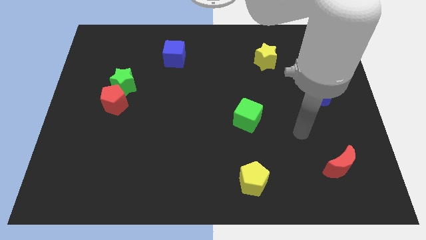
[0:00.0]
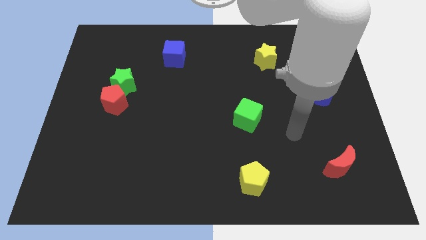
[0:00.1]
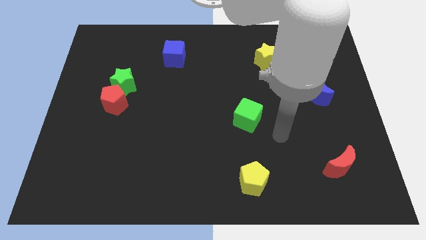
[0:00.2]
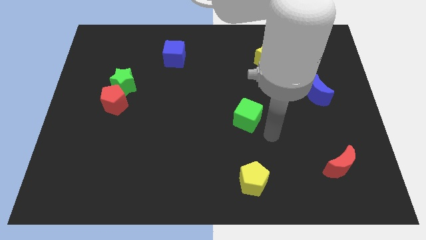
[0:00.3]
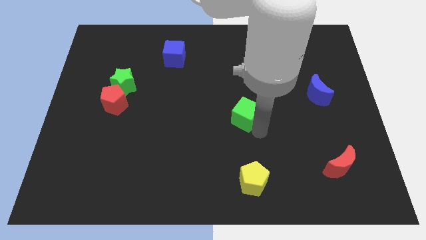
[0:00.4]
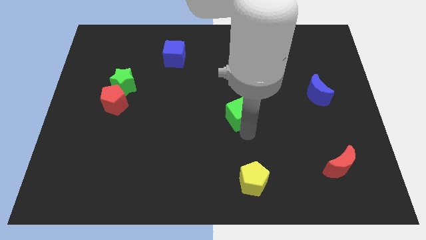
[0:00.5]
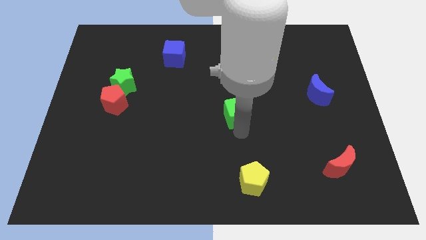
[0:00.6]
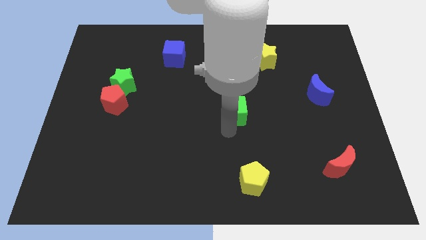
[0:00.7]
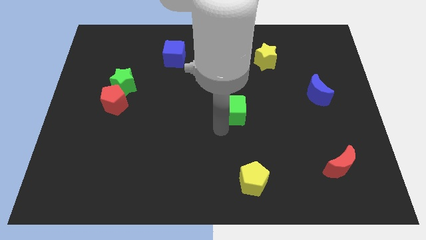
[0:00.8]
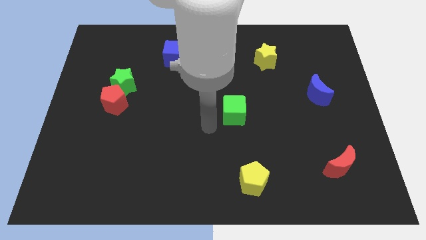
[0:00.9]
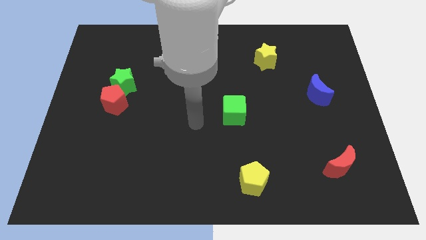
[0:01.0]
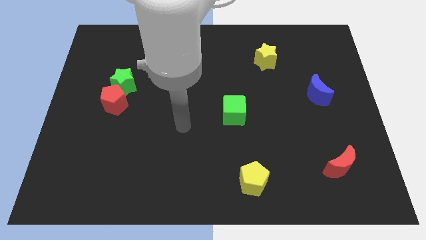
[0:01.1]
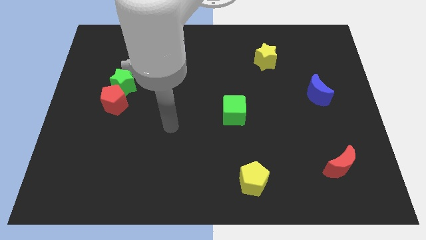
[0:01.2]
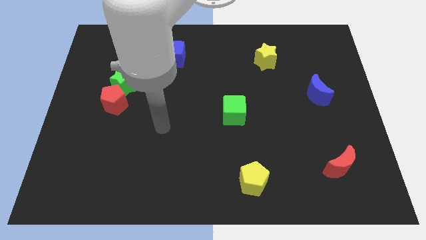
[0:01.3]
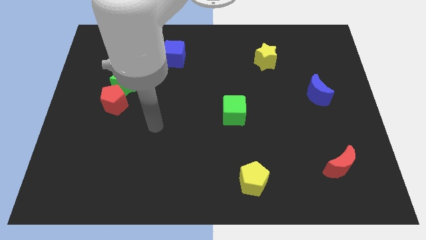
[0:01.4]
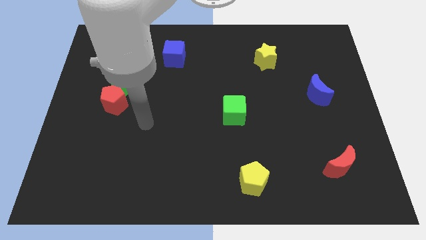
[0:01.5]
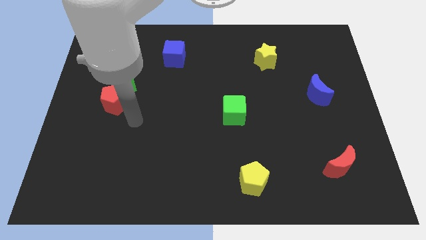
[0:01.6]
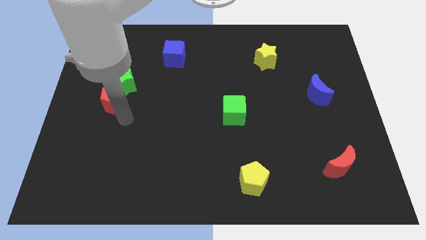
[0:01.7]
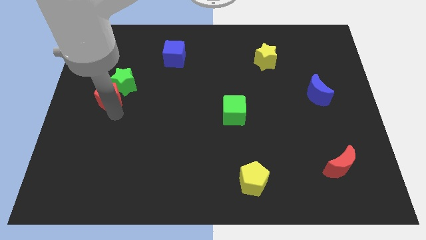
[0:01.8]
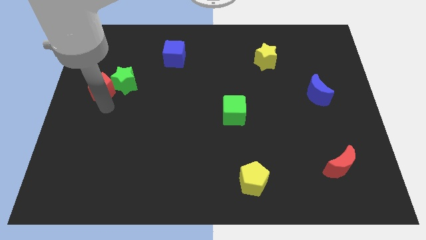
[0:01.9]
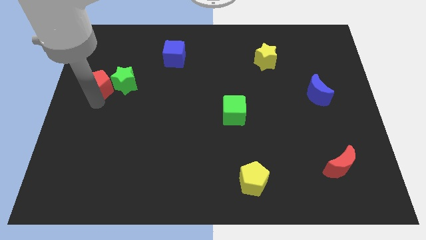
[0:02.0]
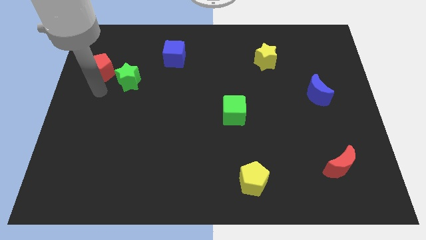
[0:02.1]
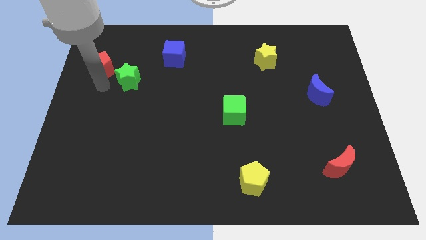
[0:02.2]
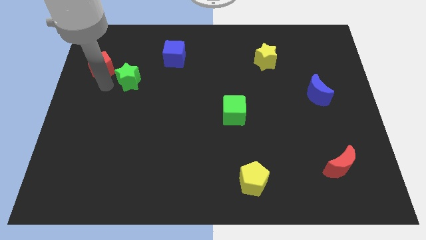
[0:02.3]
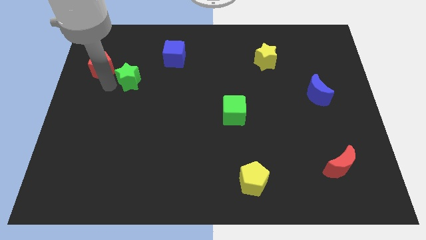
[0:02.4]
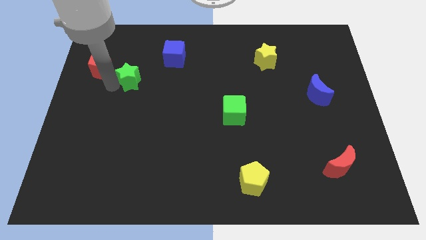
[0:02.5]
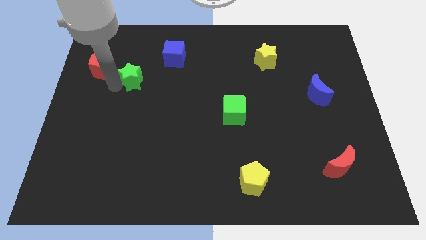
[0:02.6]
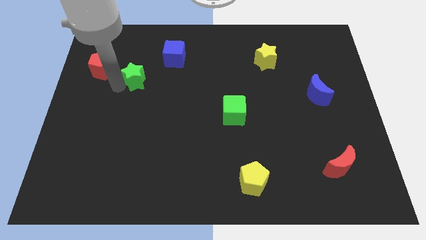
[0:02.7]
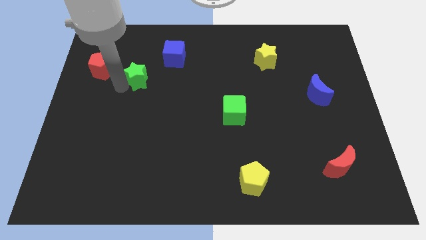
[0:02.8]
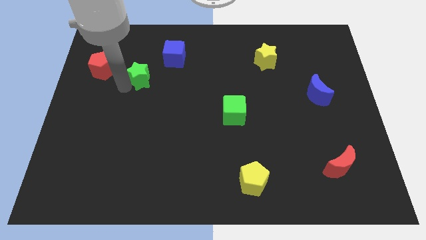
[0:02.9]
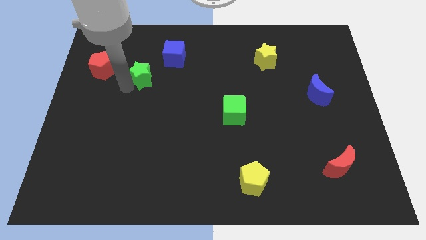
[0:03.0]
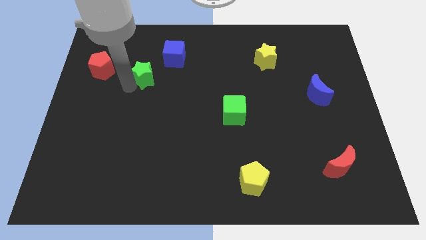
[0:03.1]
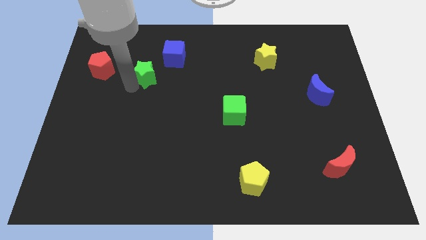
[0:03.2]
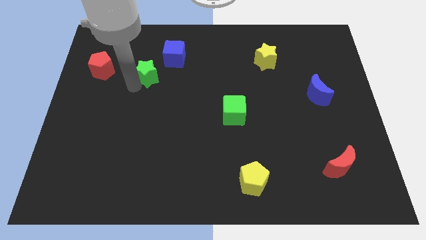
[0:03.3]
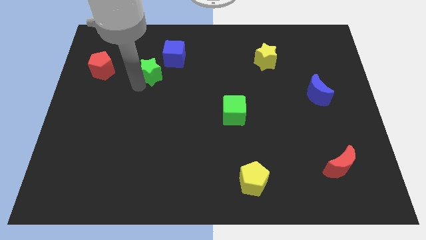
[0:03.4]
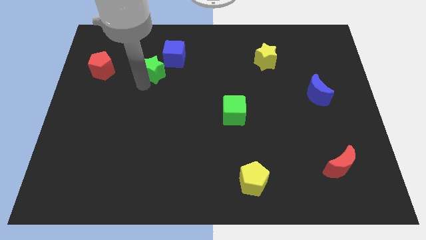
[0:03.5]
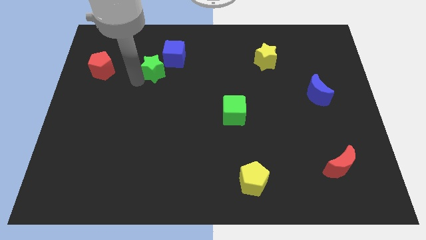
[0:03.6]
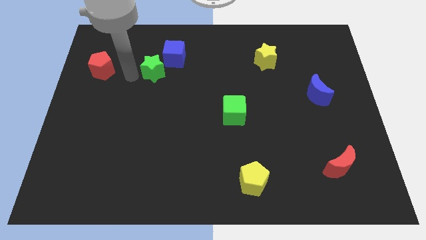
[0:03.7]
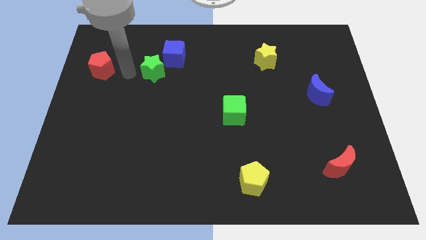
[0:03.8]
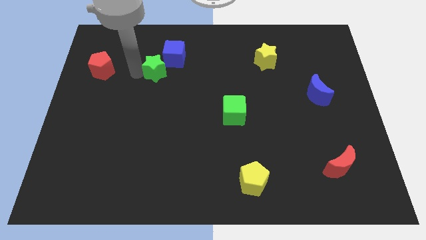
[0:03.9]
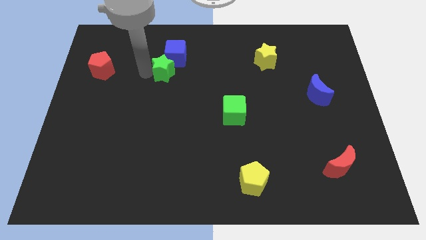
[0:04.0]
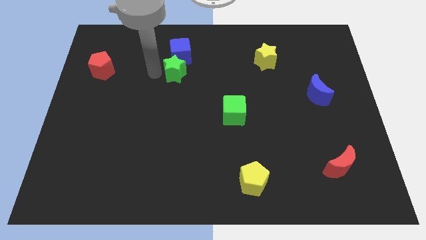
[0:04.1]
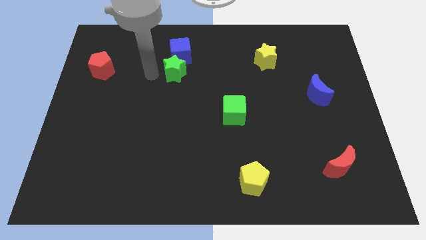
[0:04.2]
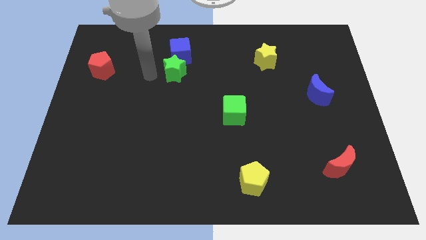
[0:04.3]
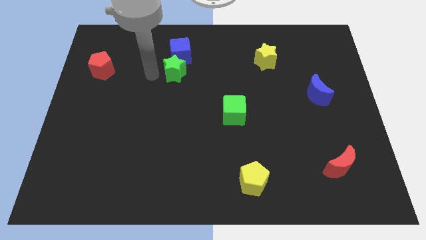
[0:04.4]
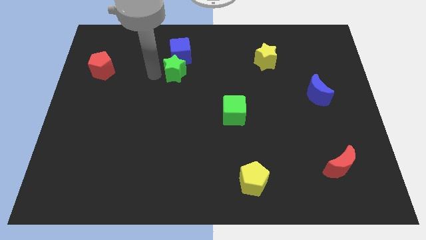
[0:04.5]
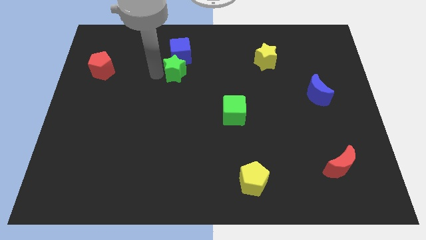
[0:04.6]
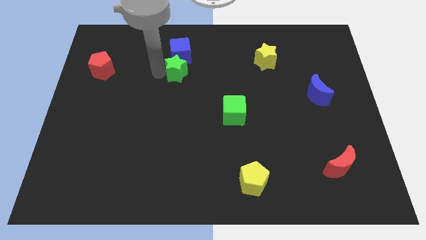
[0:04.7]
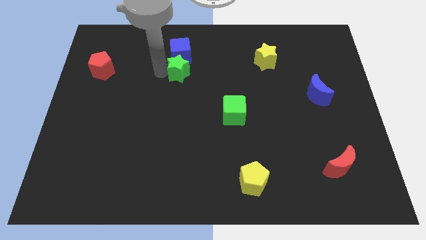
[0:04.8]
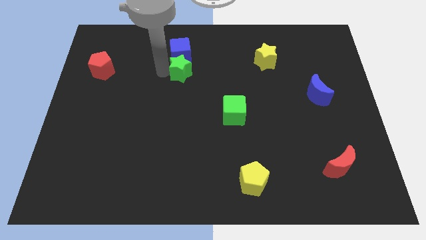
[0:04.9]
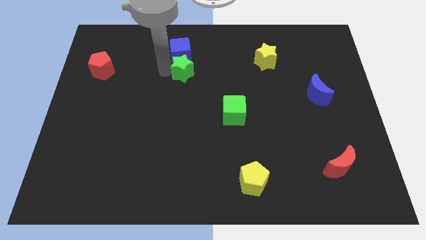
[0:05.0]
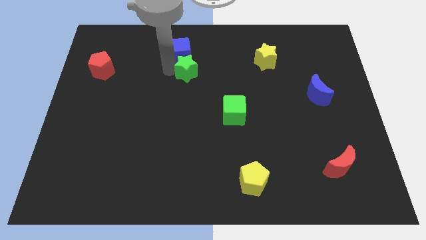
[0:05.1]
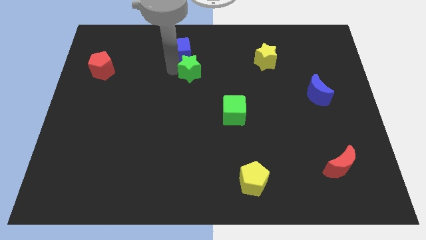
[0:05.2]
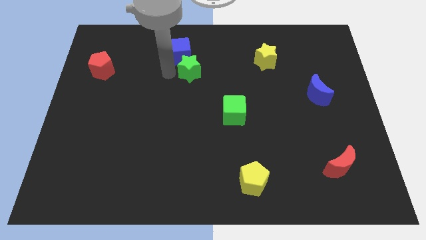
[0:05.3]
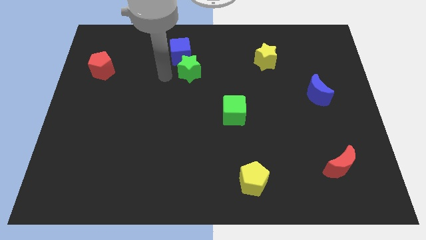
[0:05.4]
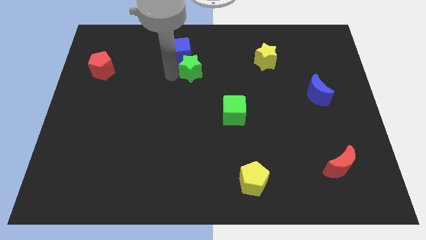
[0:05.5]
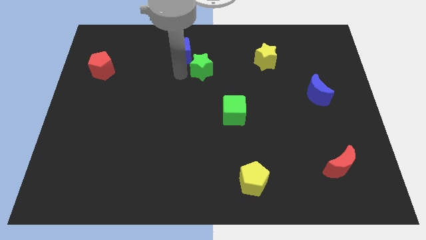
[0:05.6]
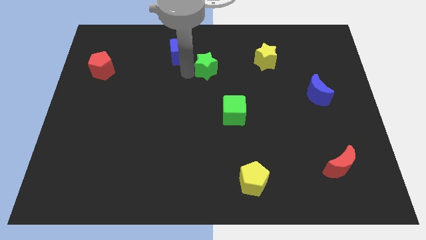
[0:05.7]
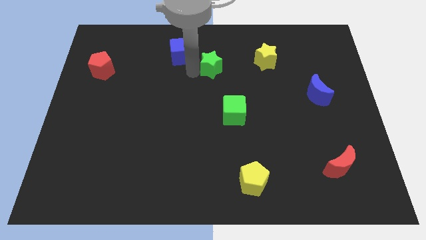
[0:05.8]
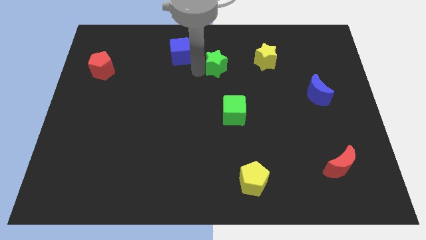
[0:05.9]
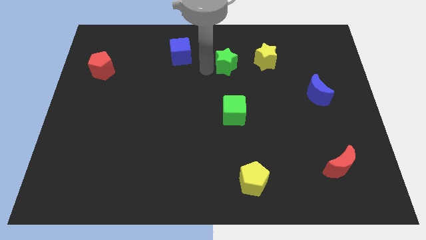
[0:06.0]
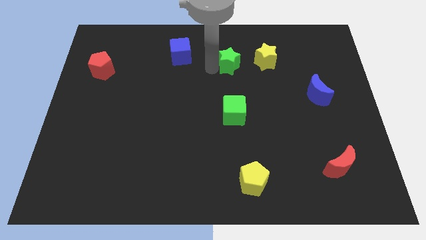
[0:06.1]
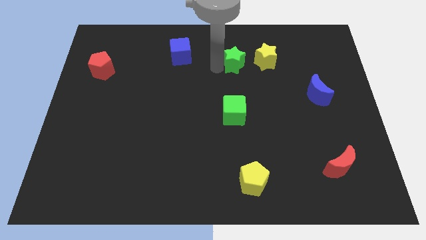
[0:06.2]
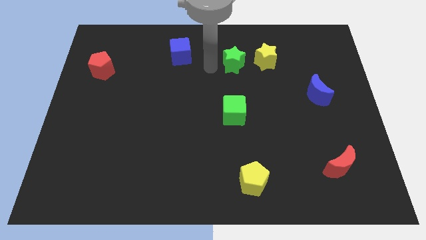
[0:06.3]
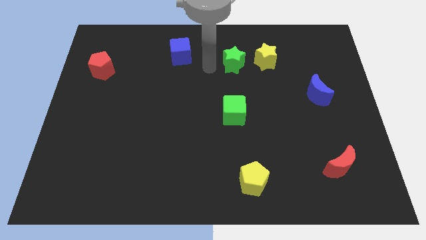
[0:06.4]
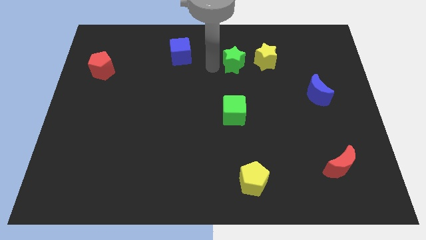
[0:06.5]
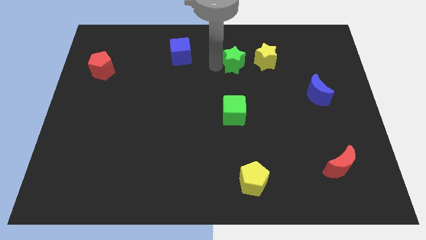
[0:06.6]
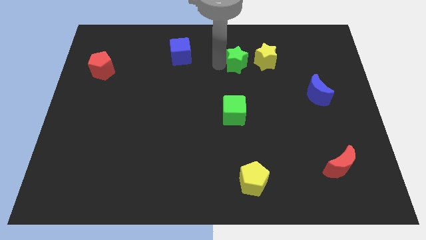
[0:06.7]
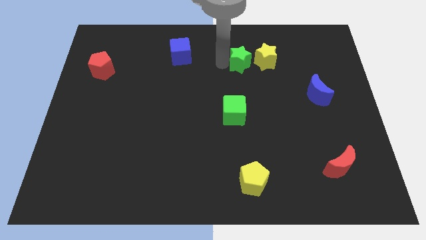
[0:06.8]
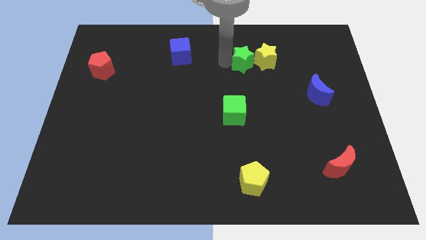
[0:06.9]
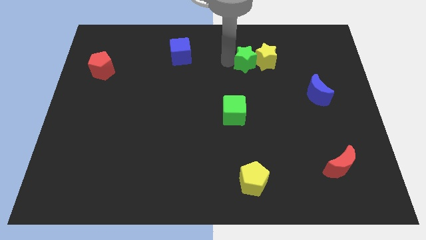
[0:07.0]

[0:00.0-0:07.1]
push the green star close to the yellow star
